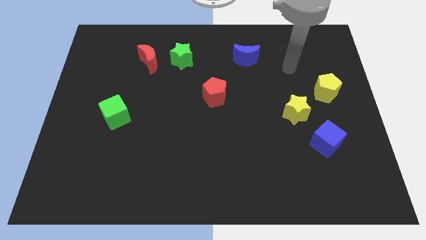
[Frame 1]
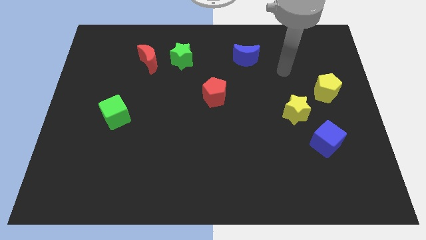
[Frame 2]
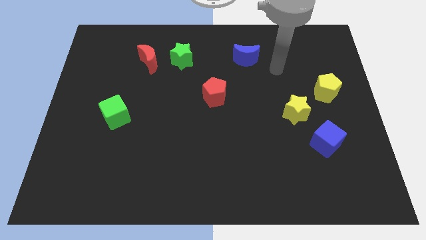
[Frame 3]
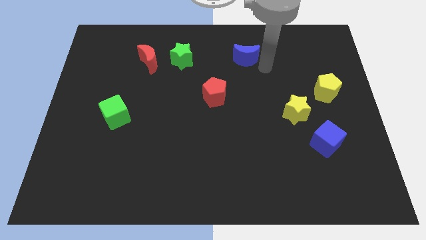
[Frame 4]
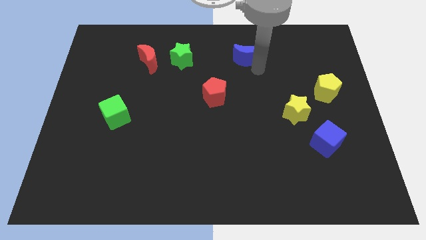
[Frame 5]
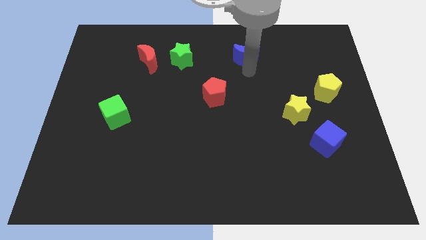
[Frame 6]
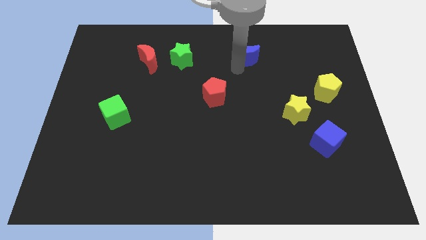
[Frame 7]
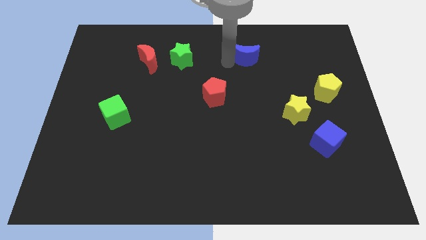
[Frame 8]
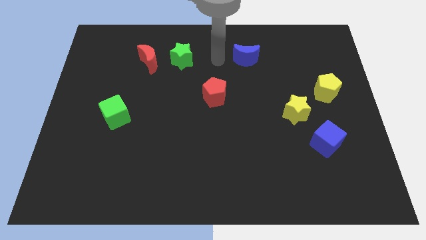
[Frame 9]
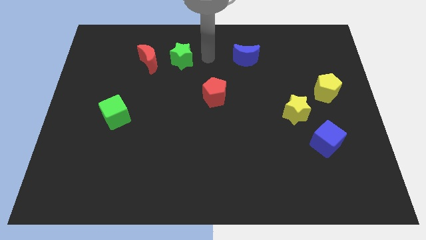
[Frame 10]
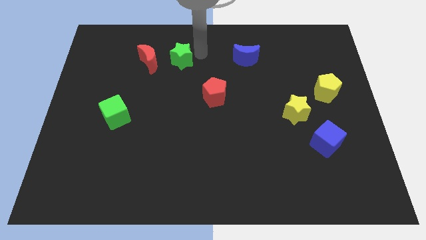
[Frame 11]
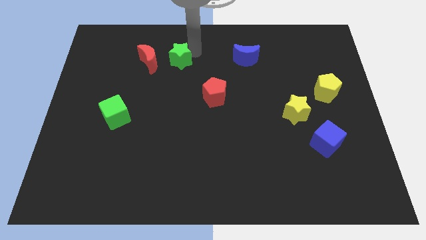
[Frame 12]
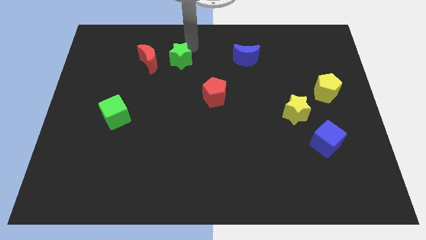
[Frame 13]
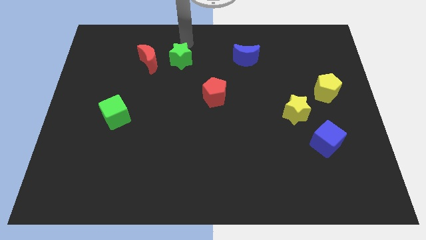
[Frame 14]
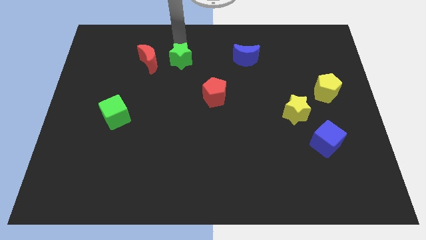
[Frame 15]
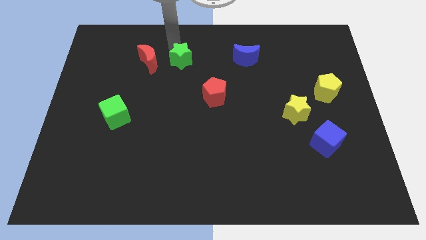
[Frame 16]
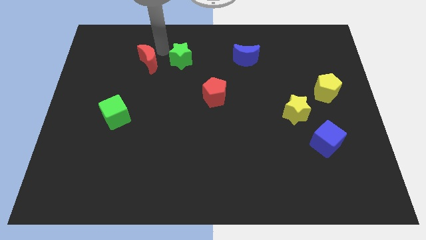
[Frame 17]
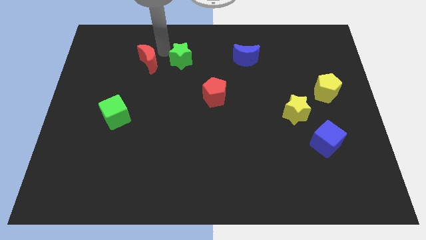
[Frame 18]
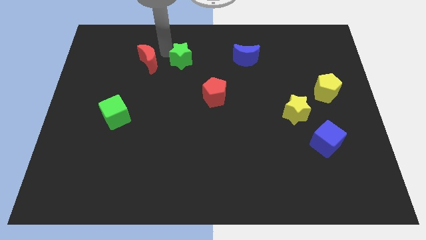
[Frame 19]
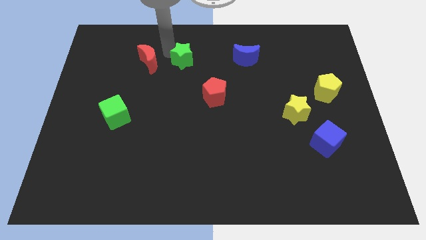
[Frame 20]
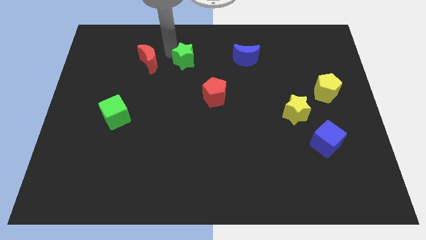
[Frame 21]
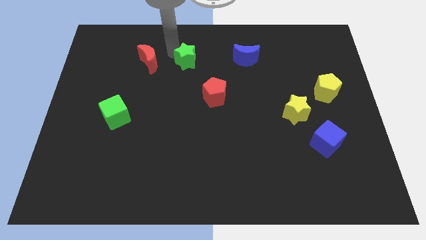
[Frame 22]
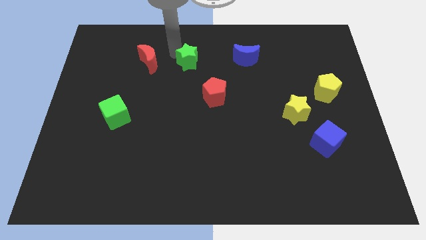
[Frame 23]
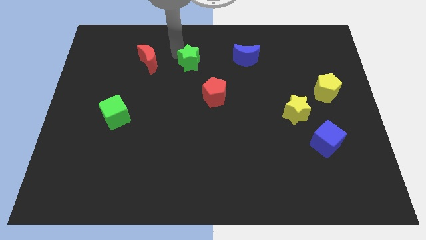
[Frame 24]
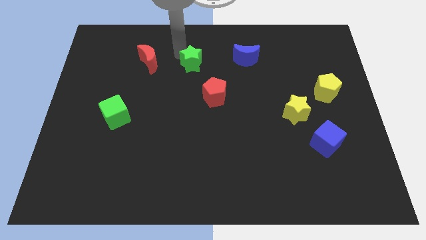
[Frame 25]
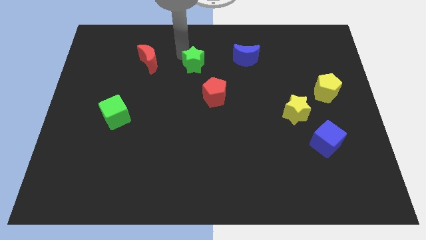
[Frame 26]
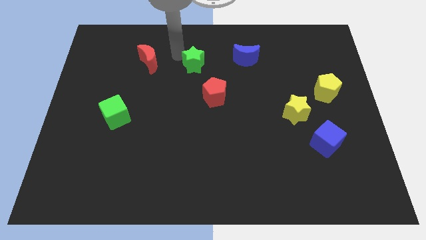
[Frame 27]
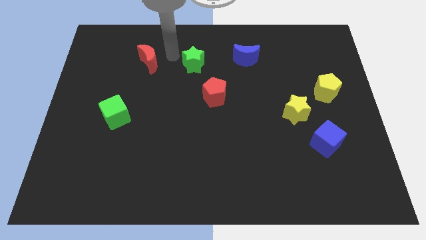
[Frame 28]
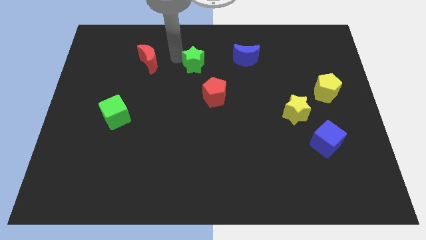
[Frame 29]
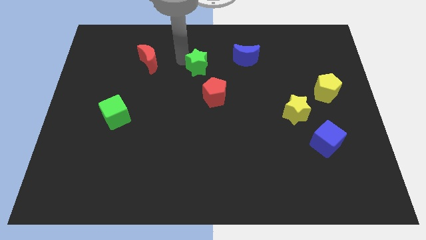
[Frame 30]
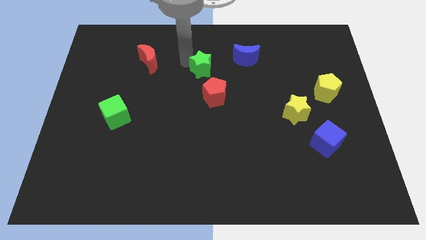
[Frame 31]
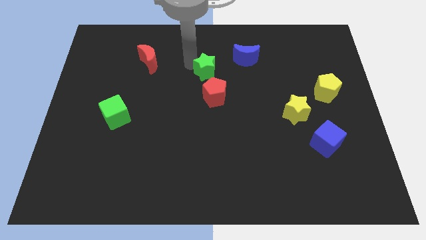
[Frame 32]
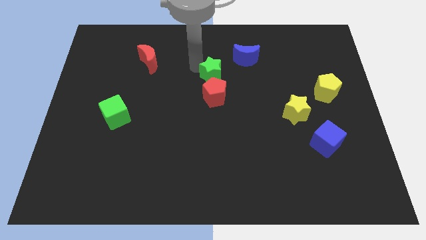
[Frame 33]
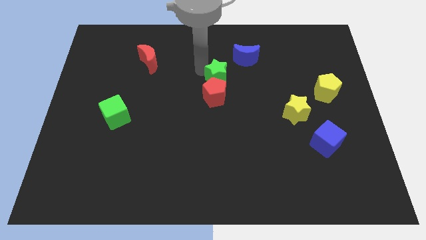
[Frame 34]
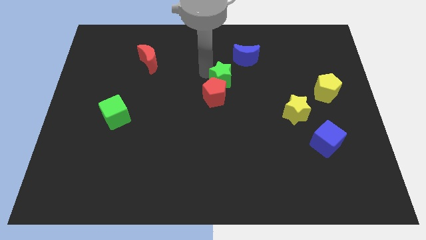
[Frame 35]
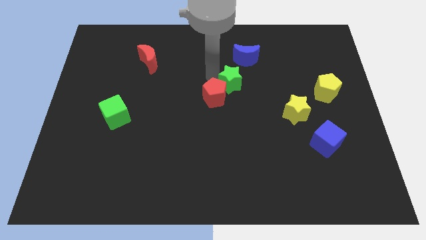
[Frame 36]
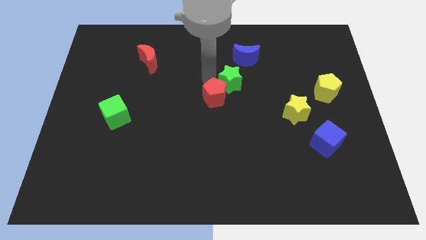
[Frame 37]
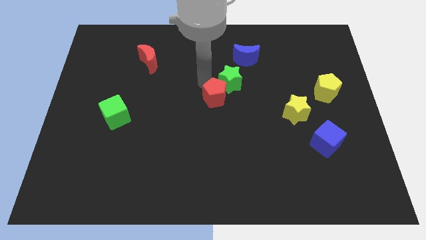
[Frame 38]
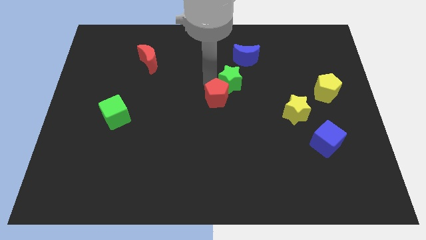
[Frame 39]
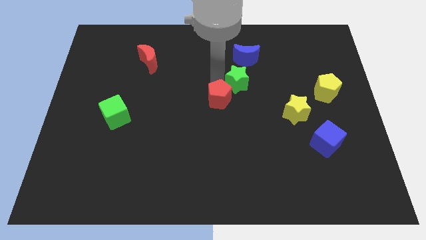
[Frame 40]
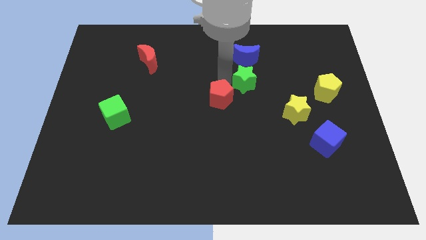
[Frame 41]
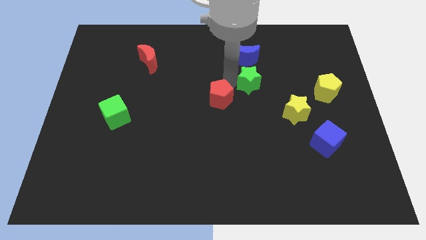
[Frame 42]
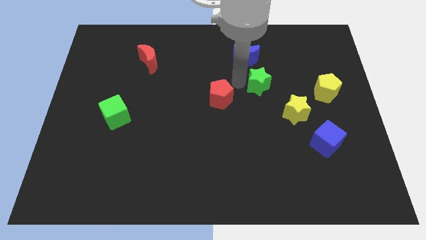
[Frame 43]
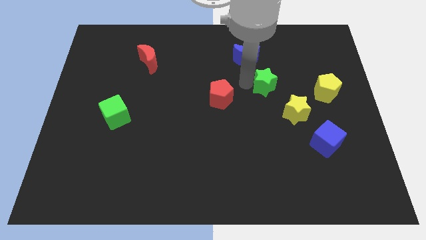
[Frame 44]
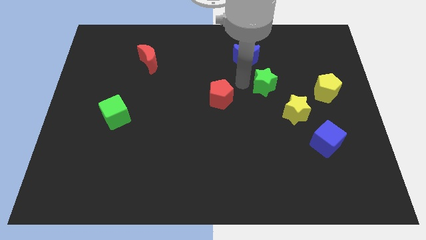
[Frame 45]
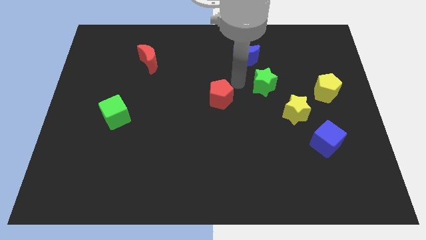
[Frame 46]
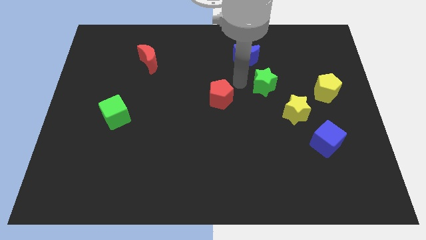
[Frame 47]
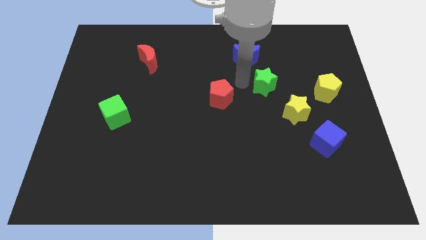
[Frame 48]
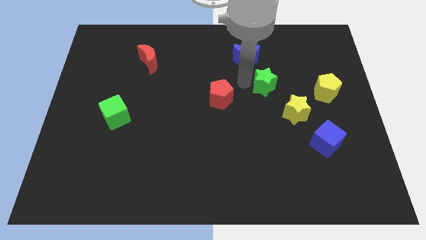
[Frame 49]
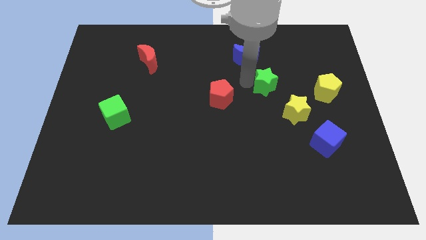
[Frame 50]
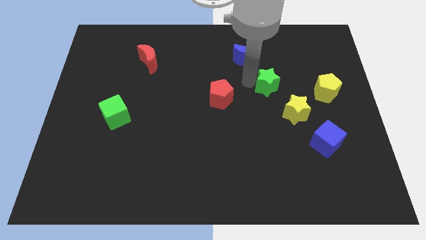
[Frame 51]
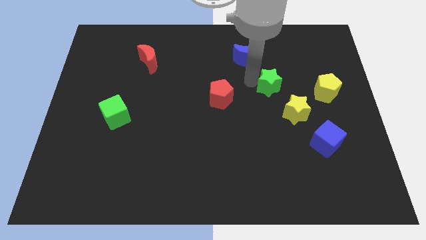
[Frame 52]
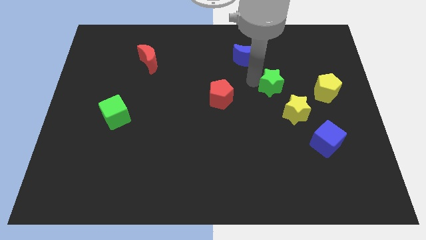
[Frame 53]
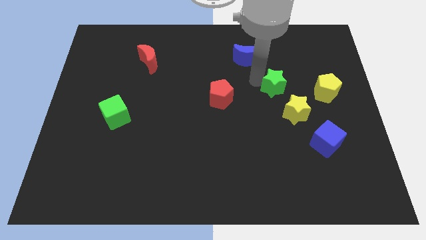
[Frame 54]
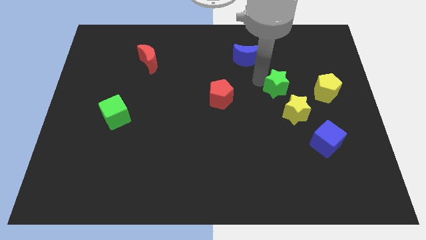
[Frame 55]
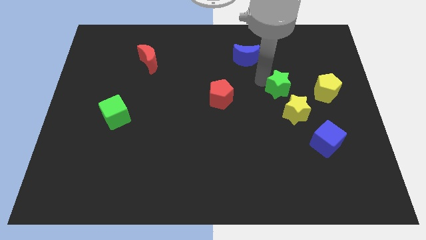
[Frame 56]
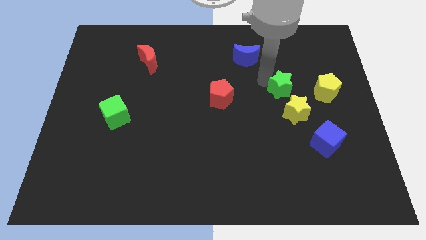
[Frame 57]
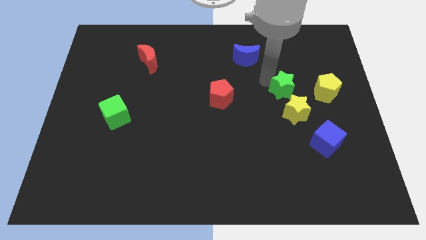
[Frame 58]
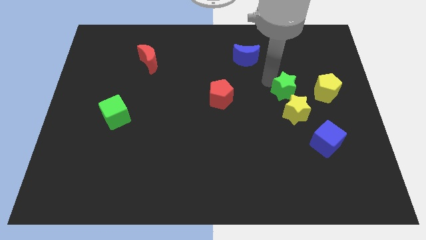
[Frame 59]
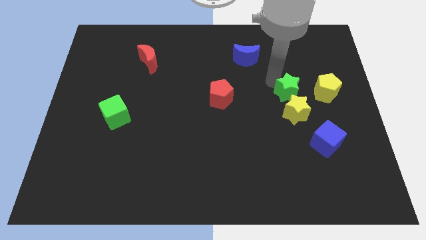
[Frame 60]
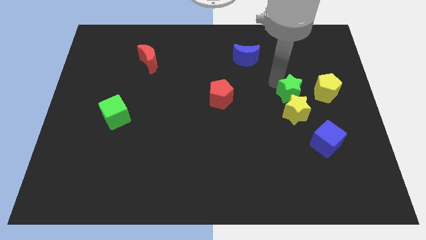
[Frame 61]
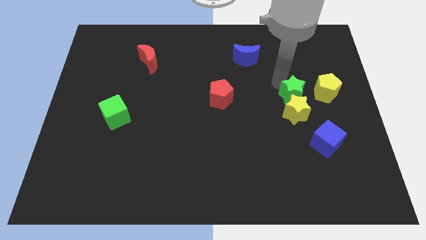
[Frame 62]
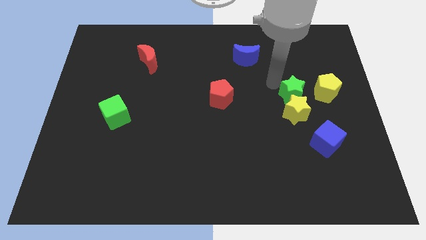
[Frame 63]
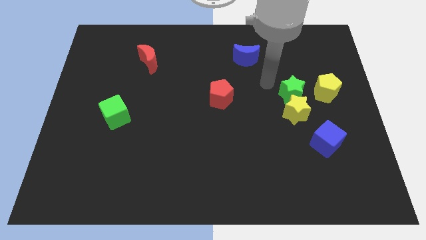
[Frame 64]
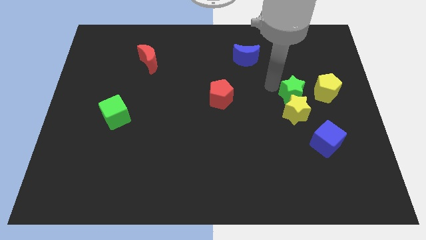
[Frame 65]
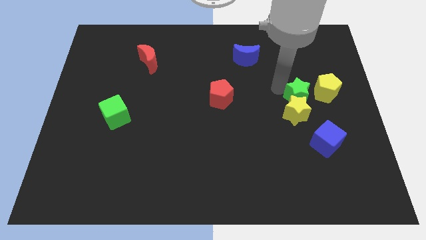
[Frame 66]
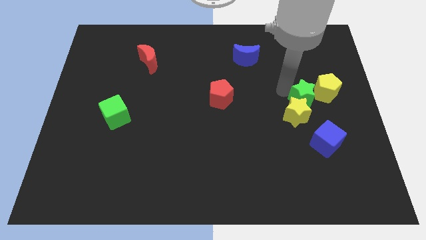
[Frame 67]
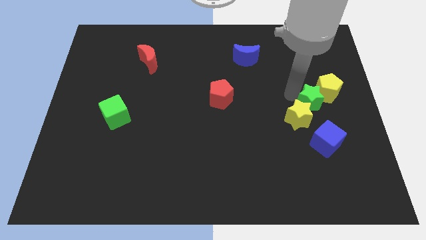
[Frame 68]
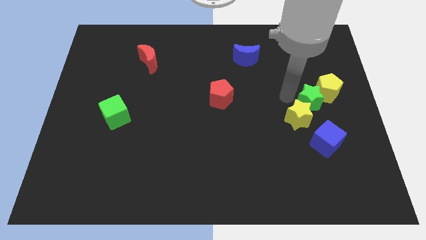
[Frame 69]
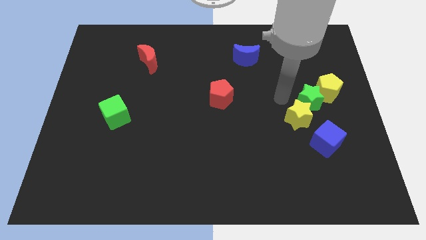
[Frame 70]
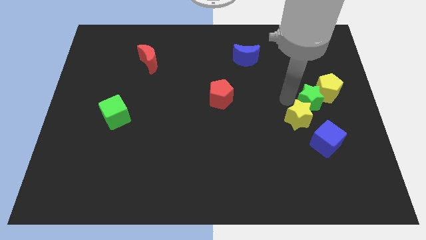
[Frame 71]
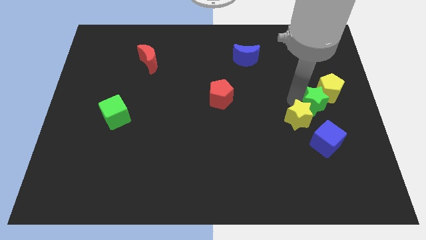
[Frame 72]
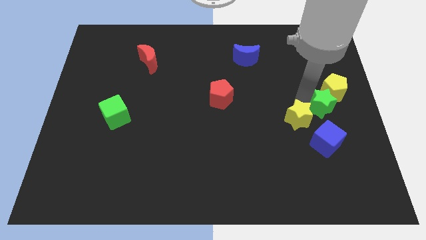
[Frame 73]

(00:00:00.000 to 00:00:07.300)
move the green star to the center right
